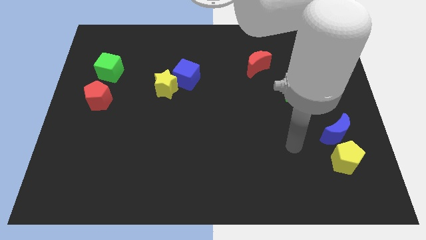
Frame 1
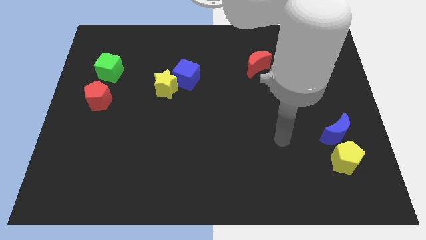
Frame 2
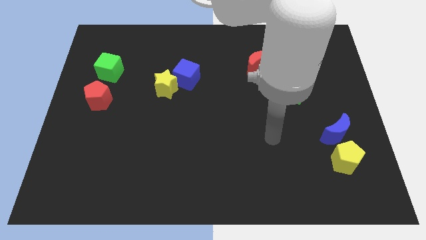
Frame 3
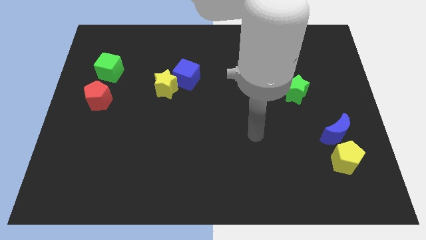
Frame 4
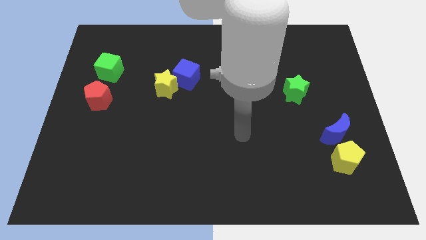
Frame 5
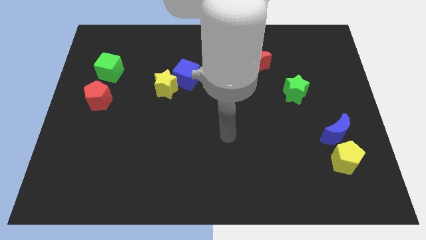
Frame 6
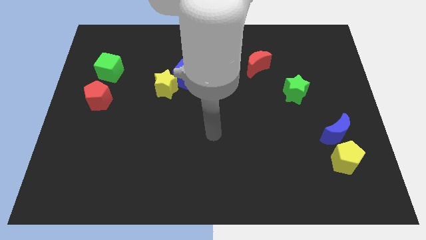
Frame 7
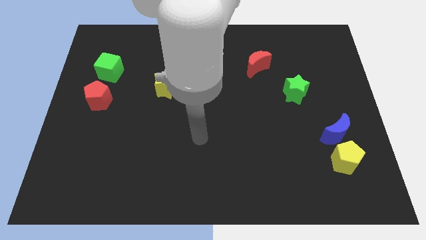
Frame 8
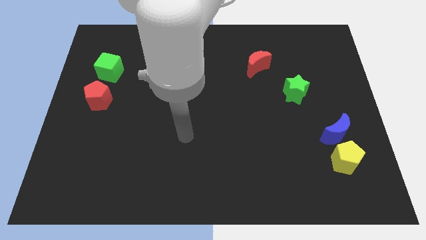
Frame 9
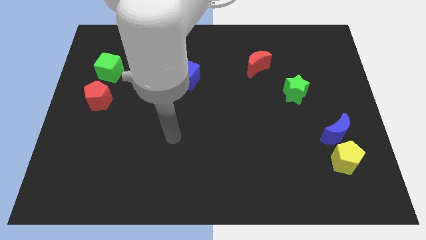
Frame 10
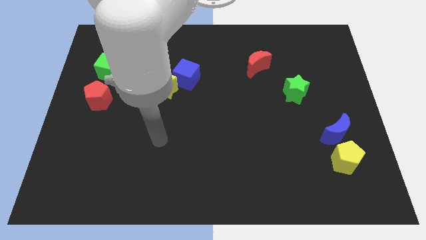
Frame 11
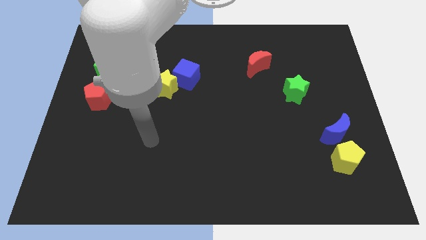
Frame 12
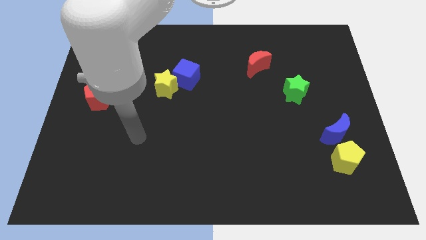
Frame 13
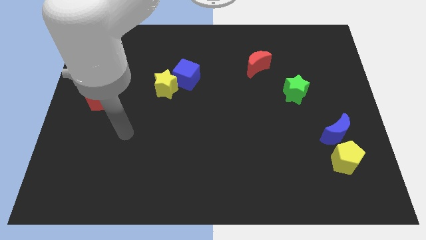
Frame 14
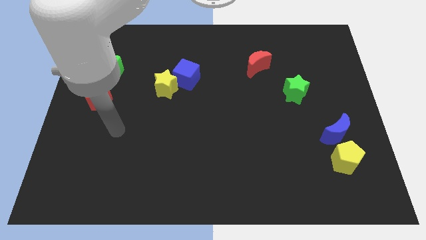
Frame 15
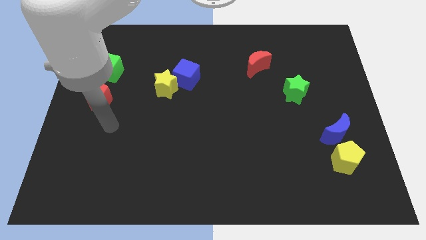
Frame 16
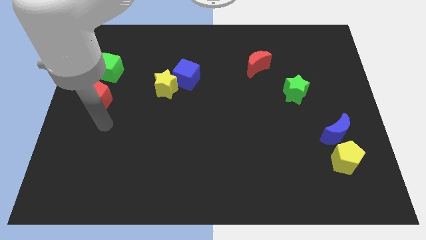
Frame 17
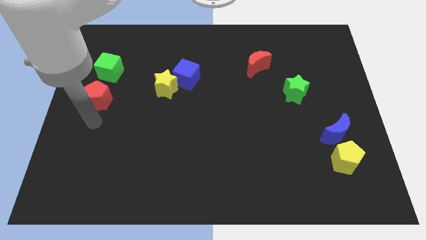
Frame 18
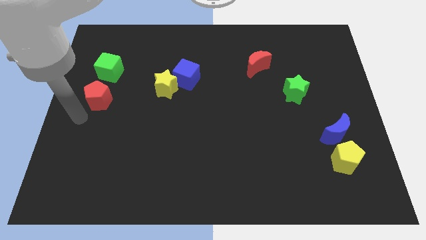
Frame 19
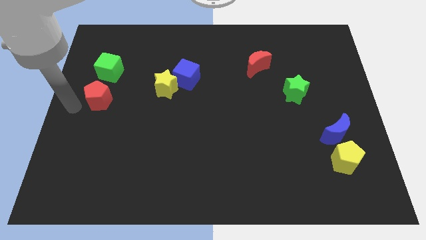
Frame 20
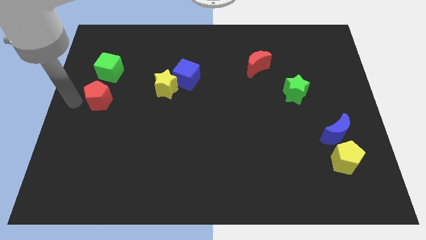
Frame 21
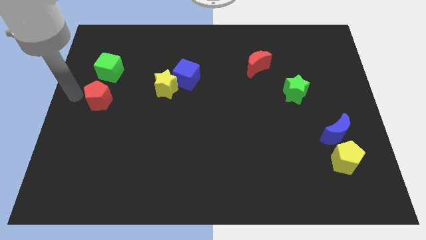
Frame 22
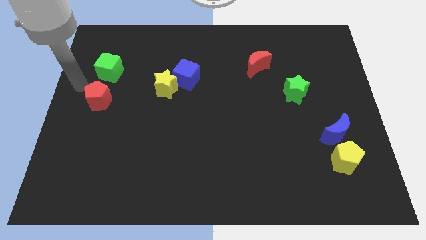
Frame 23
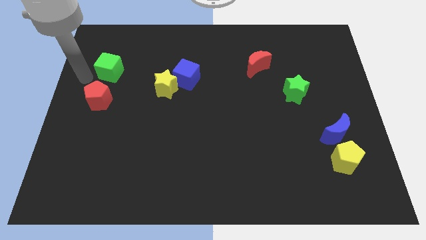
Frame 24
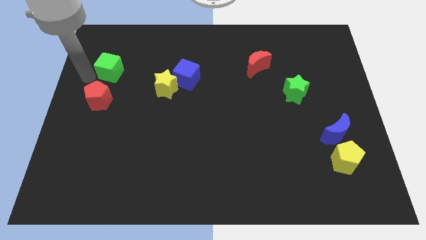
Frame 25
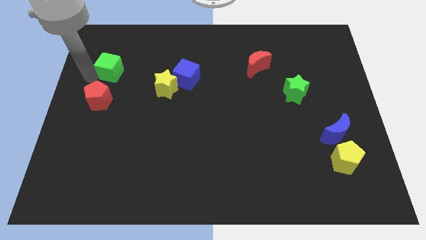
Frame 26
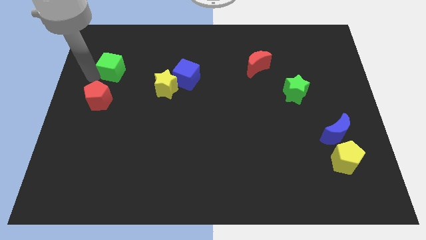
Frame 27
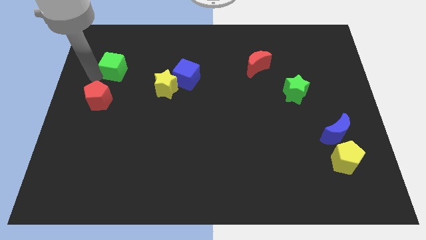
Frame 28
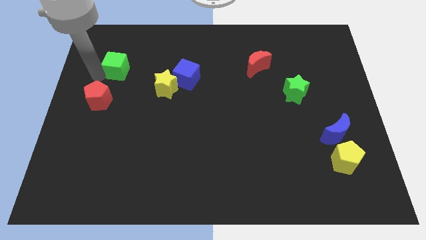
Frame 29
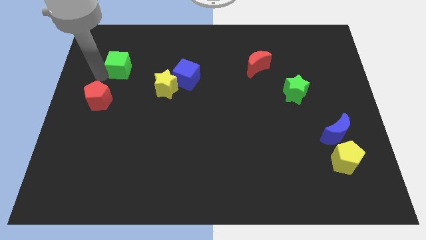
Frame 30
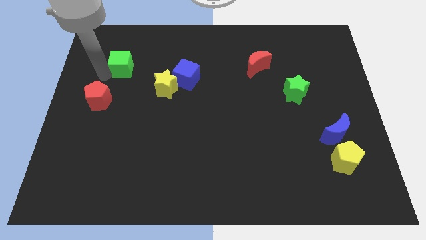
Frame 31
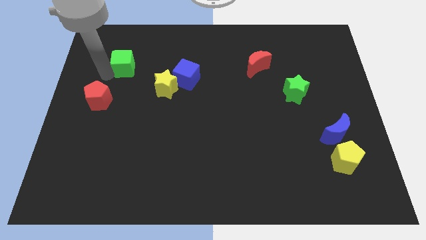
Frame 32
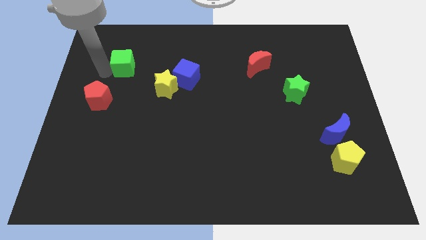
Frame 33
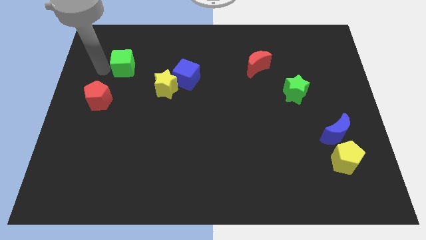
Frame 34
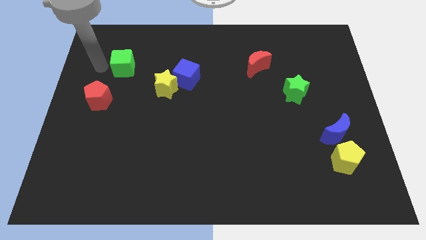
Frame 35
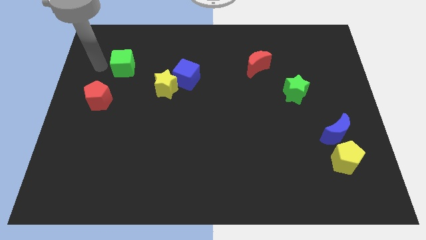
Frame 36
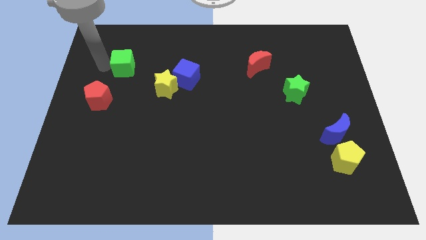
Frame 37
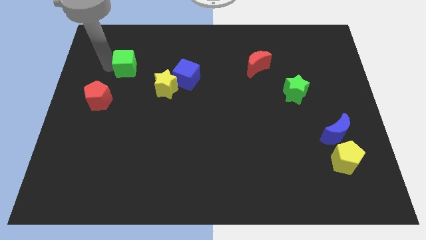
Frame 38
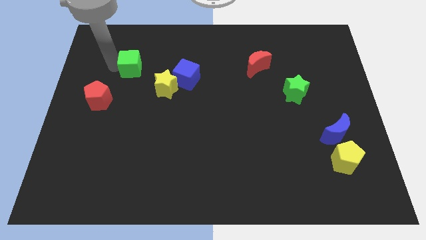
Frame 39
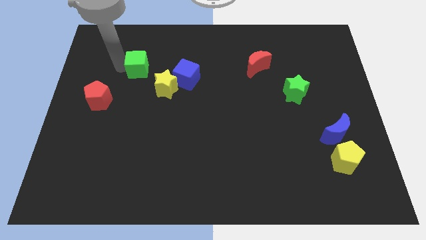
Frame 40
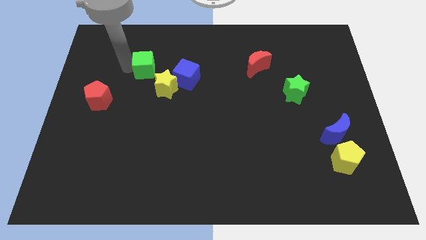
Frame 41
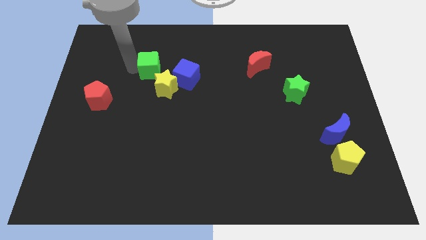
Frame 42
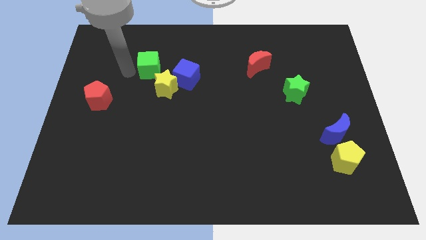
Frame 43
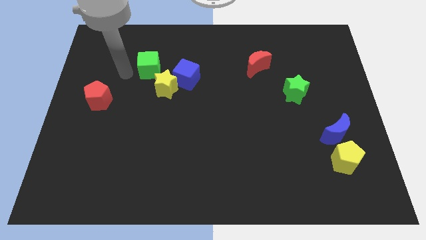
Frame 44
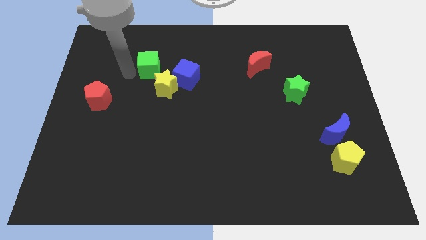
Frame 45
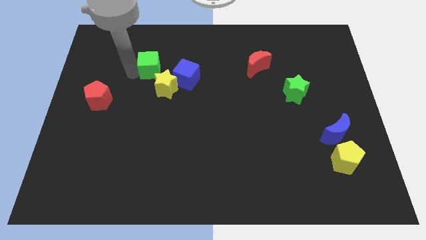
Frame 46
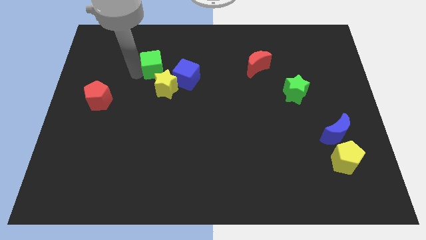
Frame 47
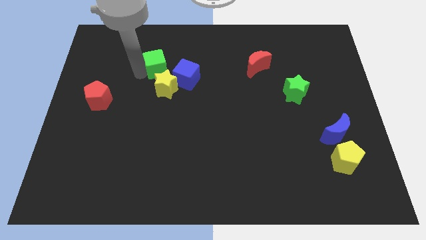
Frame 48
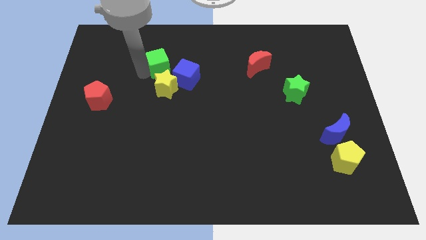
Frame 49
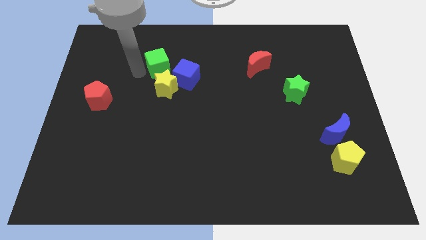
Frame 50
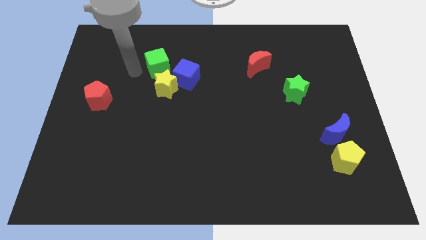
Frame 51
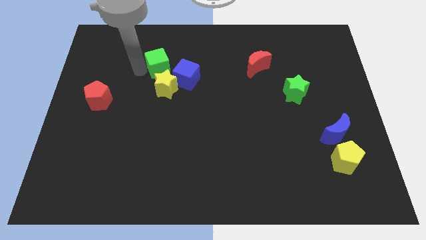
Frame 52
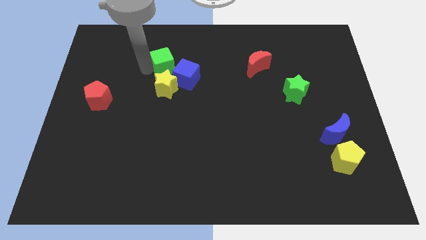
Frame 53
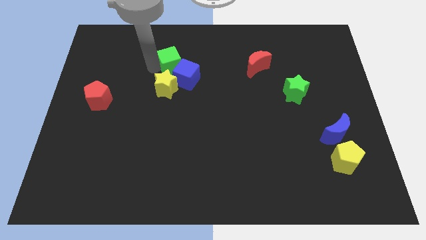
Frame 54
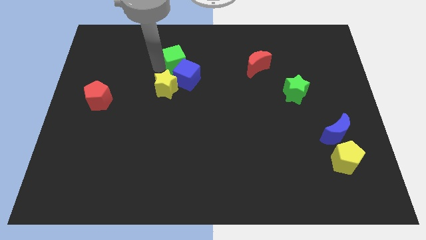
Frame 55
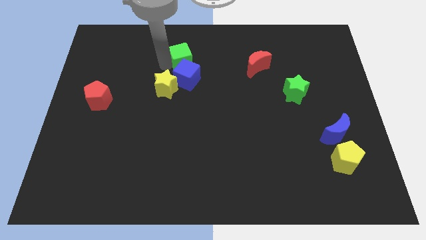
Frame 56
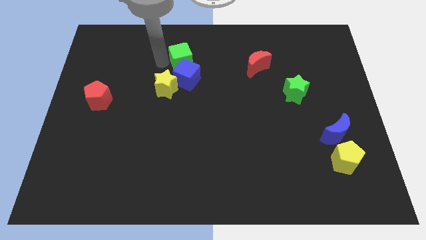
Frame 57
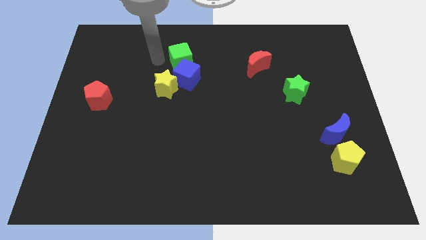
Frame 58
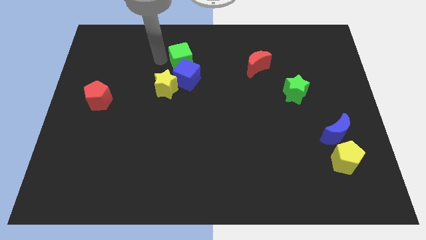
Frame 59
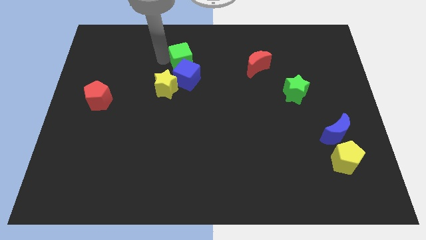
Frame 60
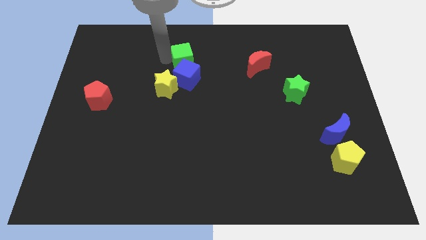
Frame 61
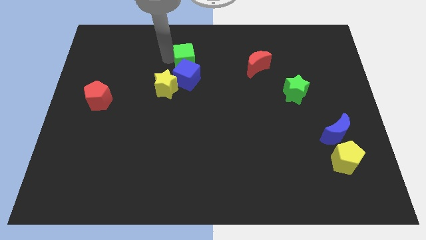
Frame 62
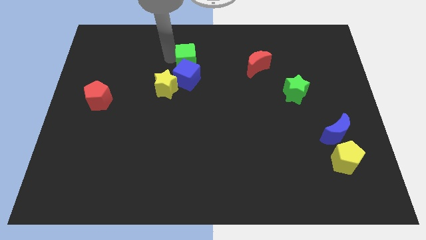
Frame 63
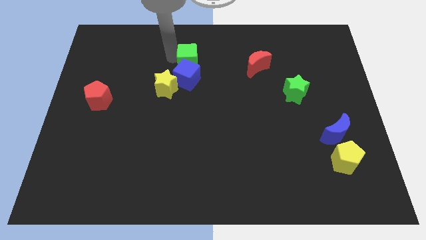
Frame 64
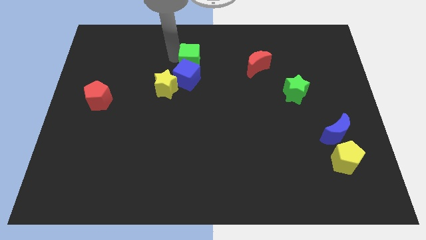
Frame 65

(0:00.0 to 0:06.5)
slide the green cube right

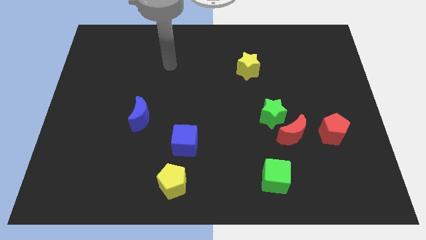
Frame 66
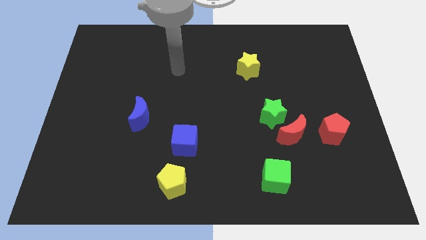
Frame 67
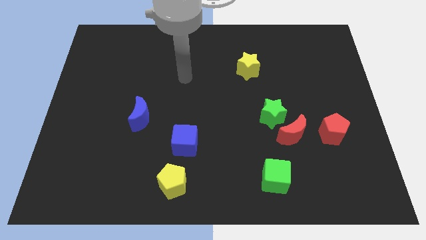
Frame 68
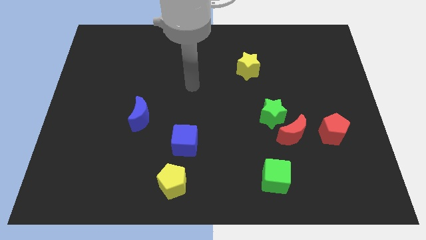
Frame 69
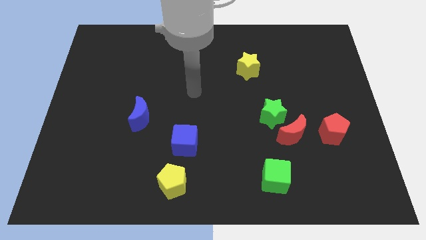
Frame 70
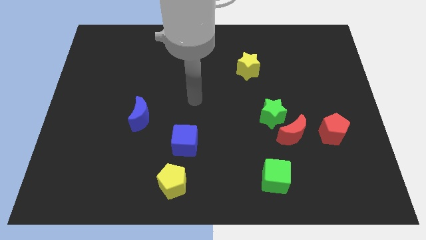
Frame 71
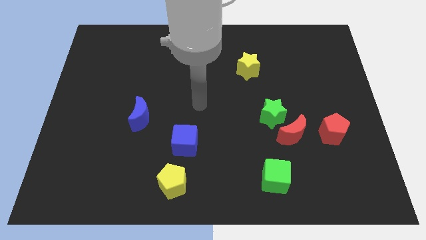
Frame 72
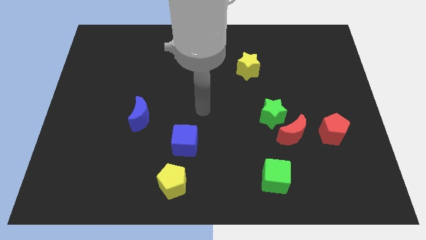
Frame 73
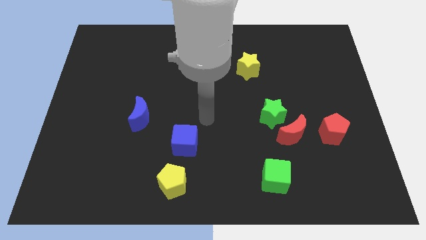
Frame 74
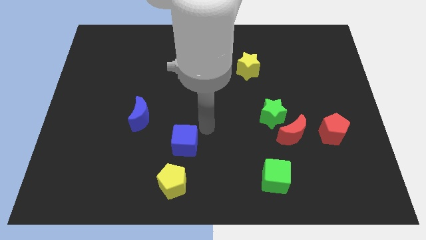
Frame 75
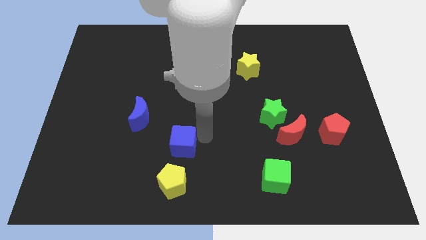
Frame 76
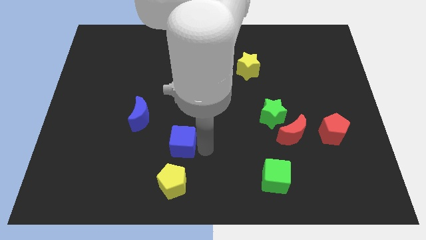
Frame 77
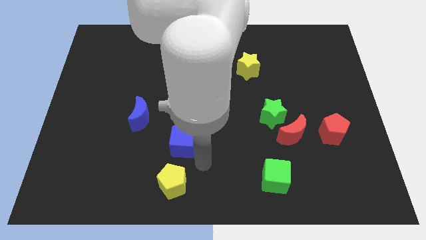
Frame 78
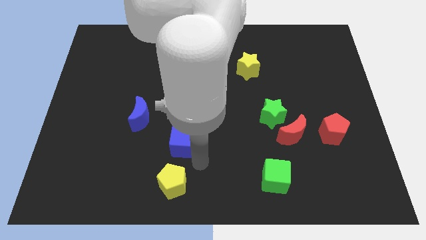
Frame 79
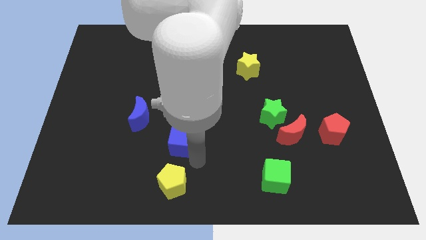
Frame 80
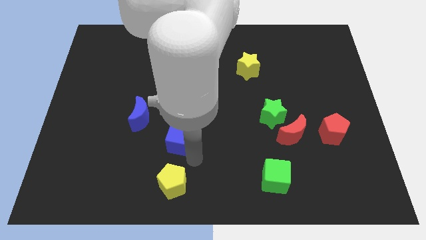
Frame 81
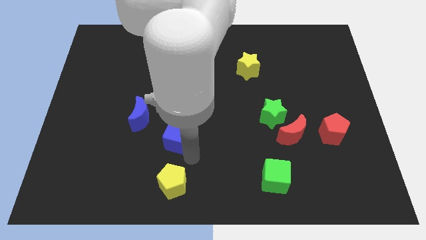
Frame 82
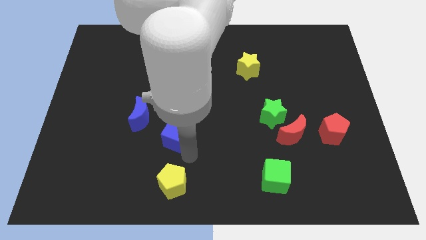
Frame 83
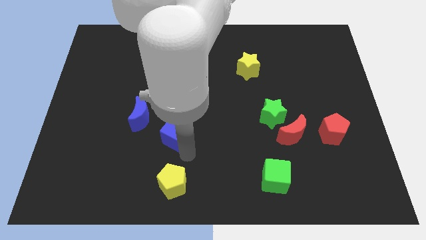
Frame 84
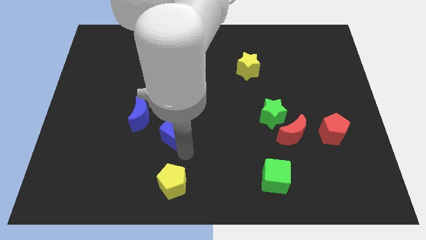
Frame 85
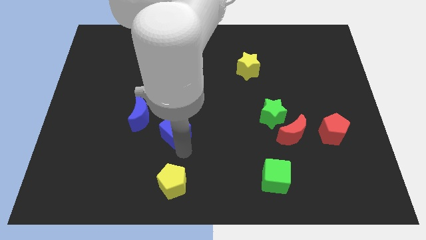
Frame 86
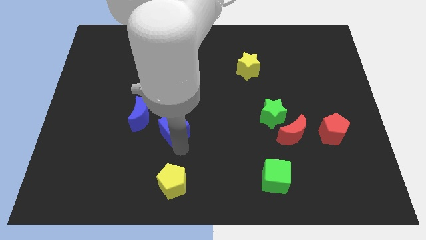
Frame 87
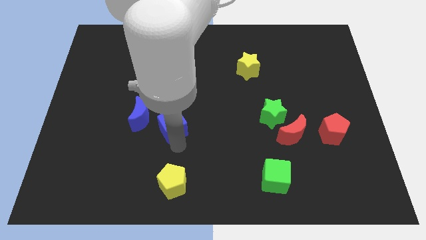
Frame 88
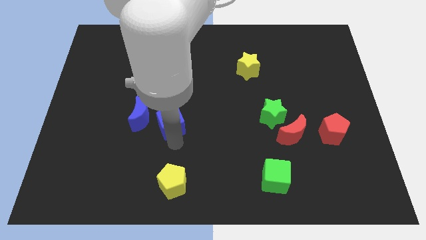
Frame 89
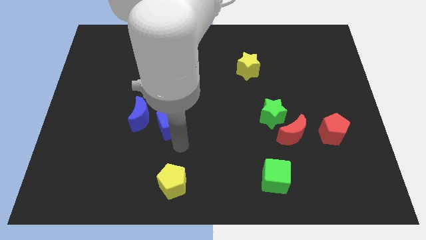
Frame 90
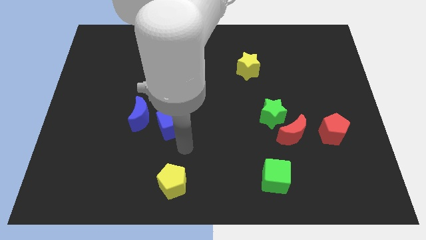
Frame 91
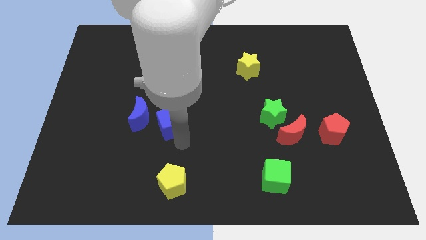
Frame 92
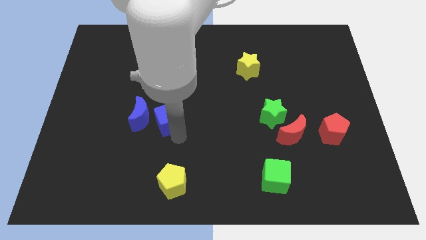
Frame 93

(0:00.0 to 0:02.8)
slide the blue cube somewhat diagonally up and left
